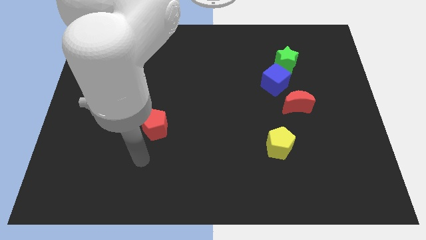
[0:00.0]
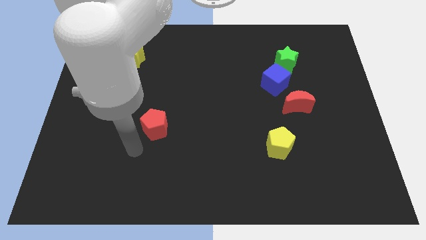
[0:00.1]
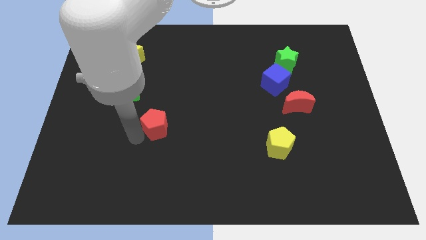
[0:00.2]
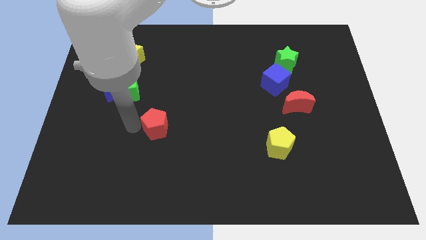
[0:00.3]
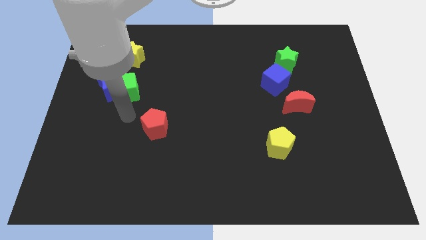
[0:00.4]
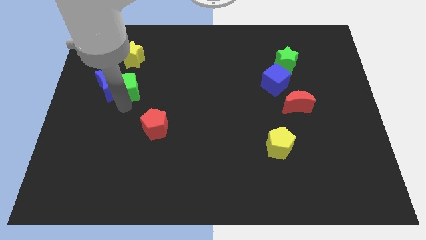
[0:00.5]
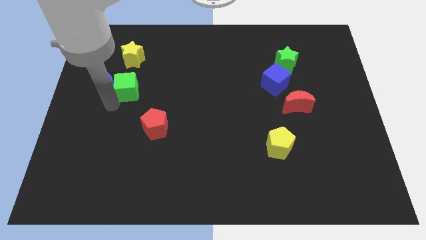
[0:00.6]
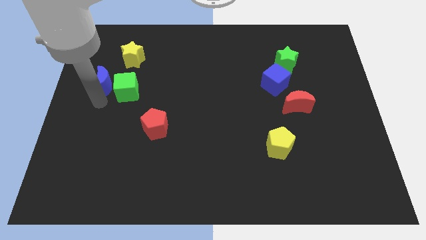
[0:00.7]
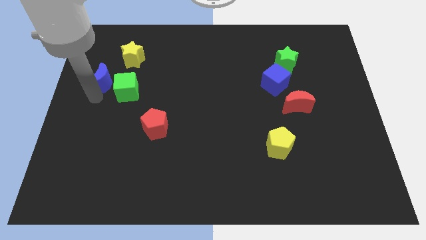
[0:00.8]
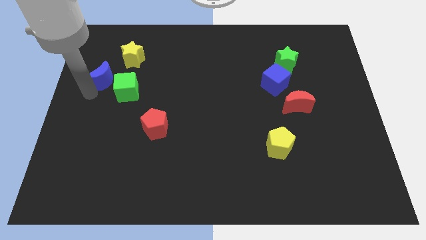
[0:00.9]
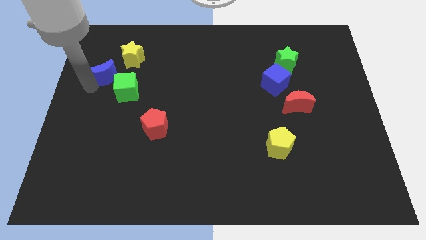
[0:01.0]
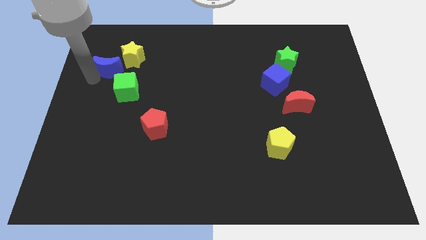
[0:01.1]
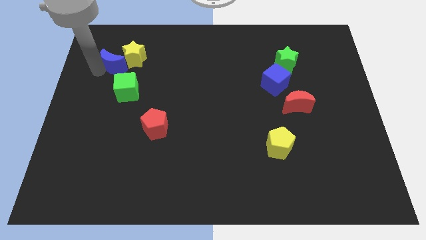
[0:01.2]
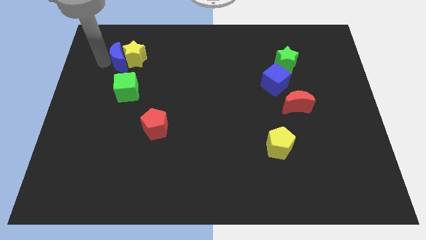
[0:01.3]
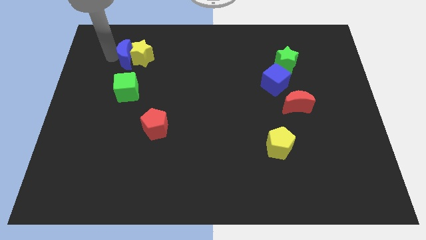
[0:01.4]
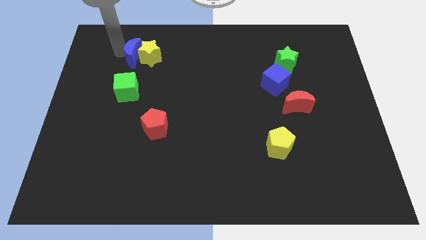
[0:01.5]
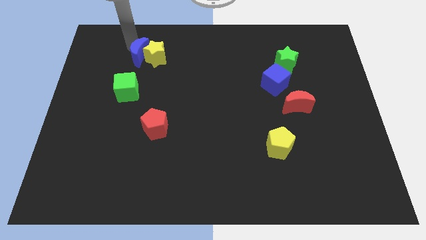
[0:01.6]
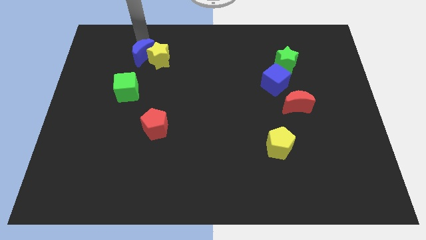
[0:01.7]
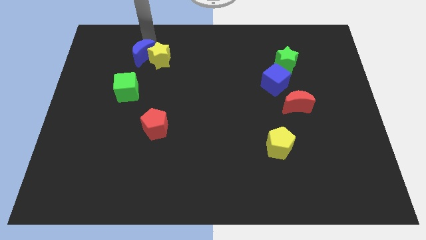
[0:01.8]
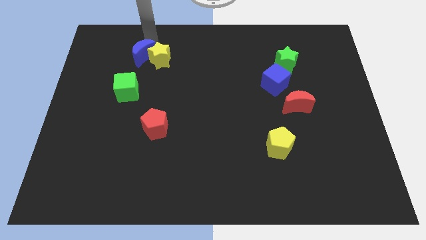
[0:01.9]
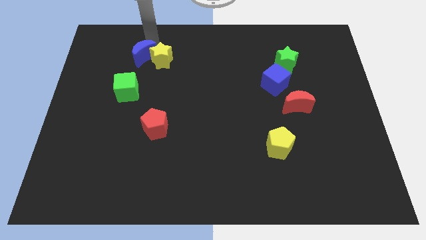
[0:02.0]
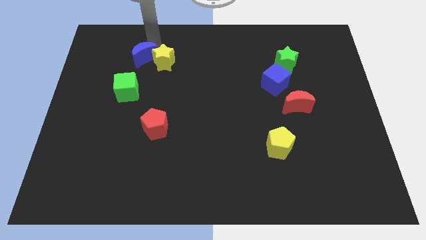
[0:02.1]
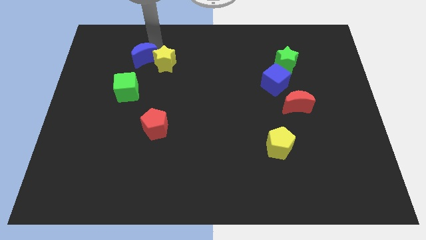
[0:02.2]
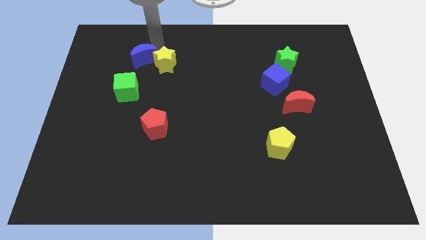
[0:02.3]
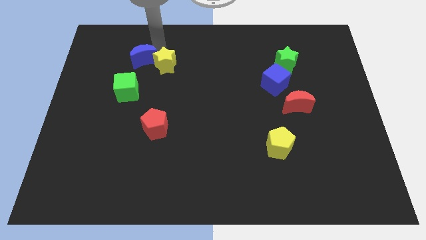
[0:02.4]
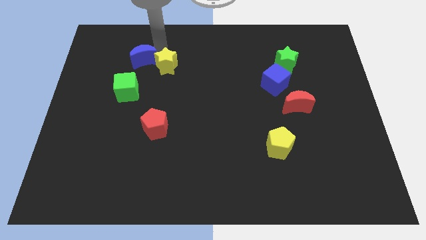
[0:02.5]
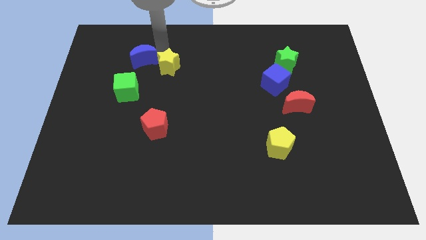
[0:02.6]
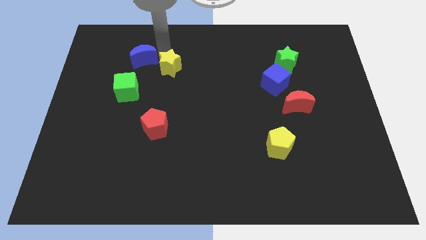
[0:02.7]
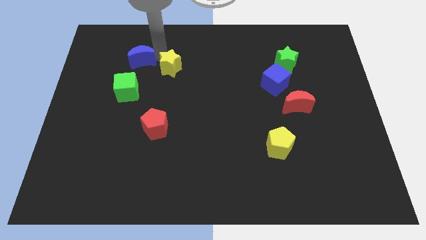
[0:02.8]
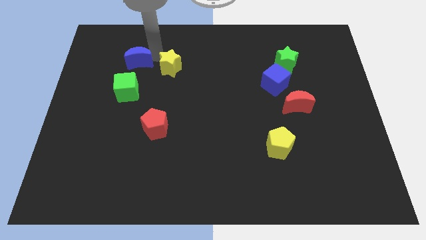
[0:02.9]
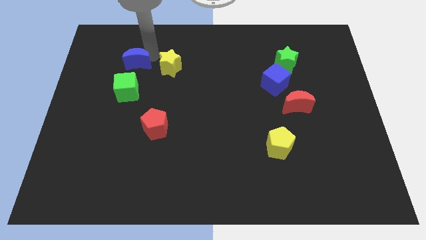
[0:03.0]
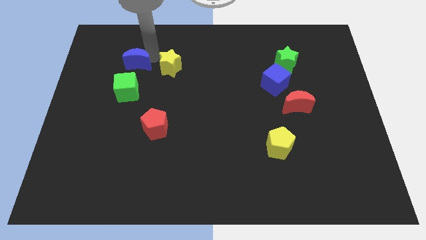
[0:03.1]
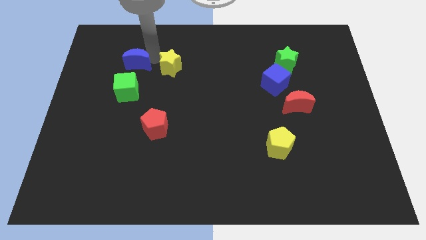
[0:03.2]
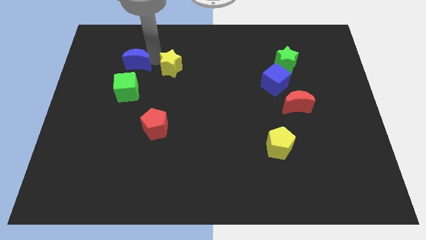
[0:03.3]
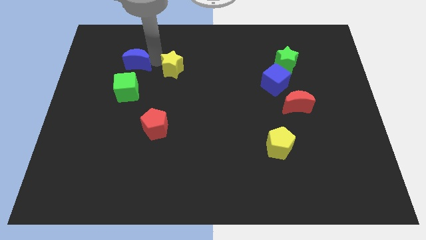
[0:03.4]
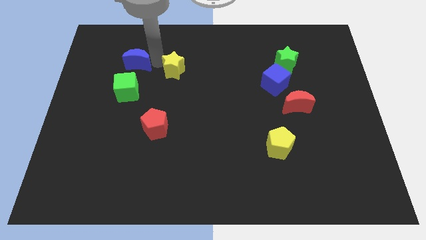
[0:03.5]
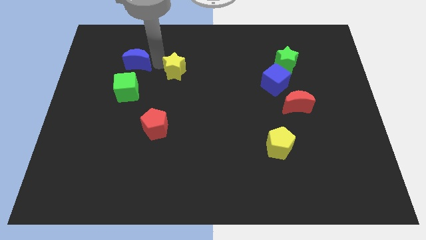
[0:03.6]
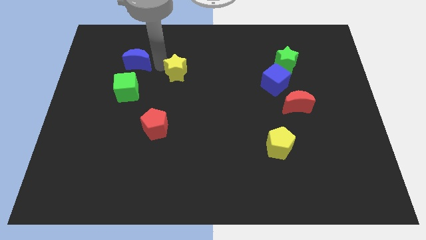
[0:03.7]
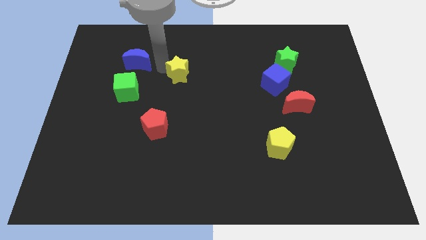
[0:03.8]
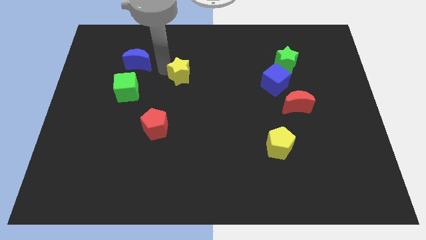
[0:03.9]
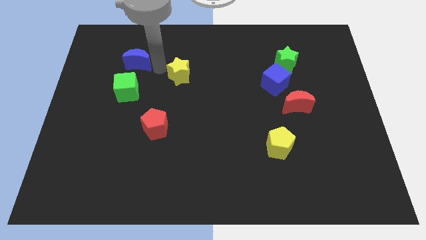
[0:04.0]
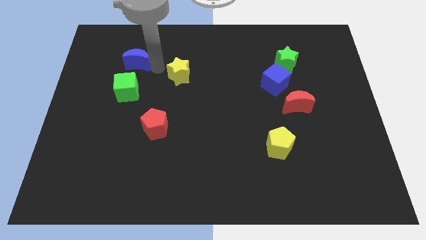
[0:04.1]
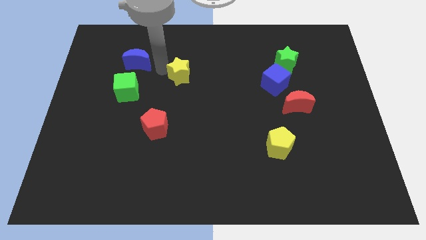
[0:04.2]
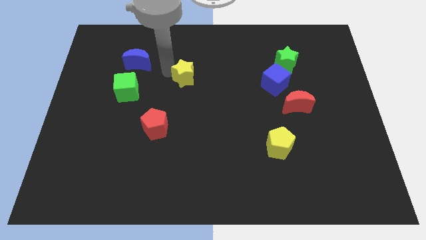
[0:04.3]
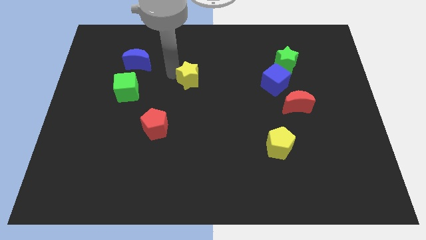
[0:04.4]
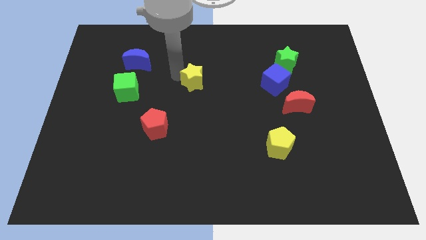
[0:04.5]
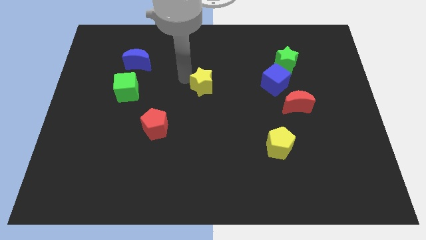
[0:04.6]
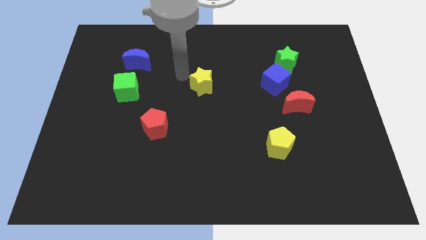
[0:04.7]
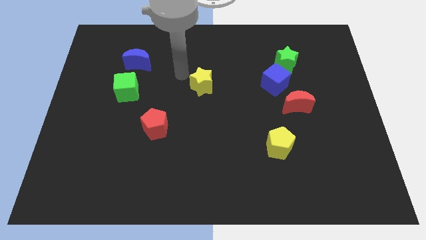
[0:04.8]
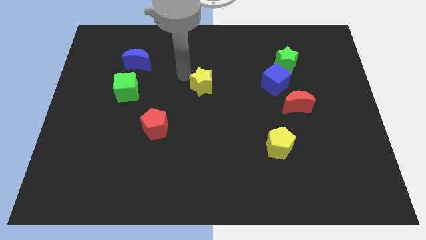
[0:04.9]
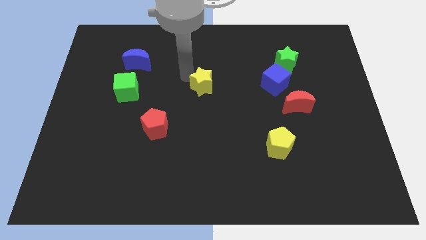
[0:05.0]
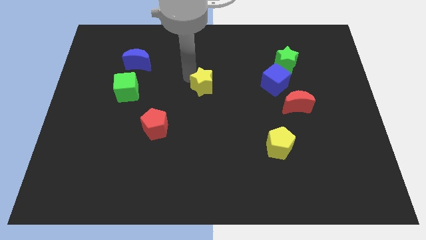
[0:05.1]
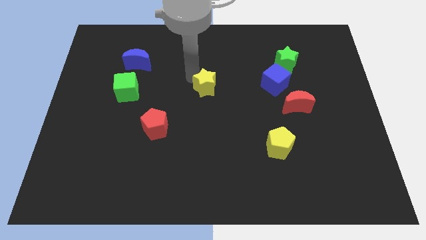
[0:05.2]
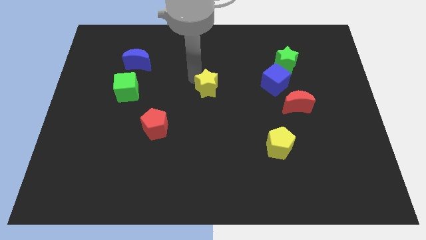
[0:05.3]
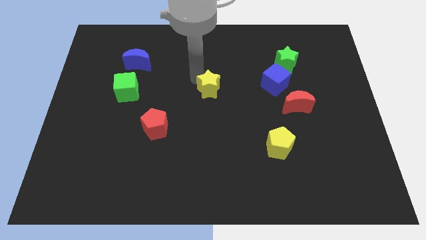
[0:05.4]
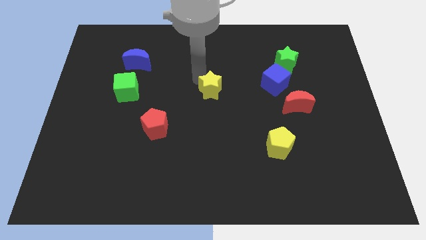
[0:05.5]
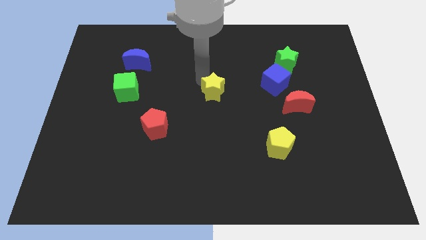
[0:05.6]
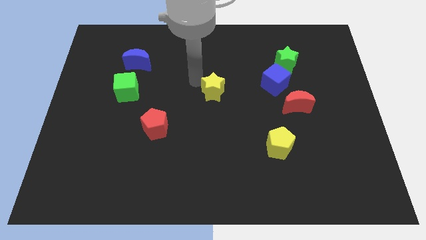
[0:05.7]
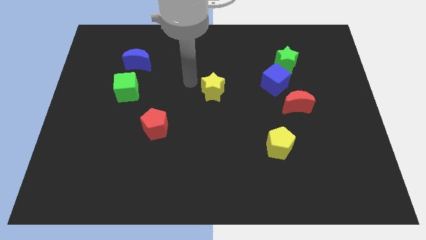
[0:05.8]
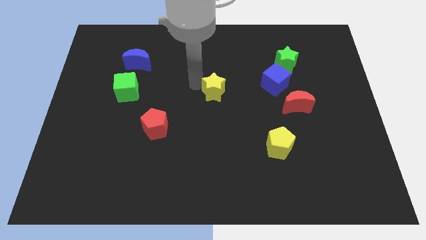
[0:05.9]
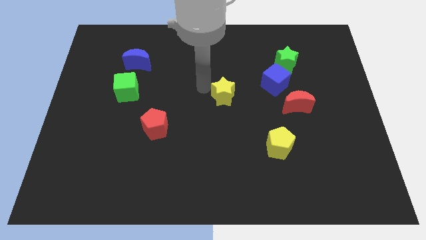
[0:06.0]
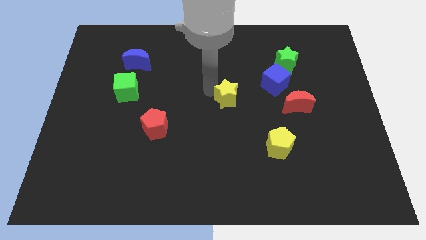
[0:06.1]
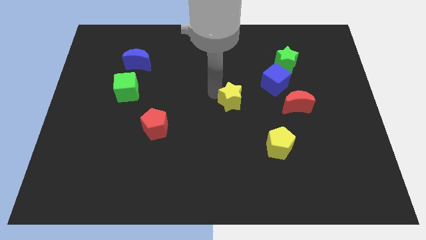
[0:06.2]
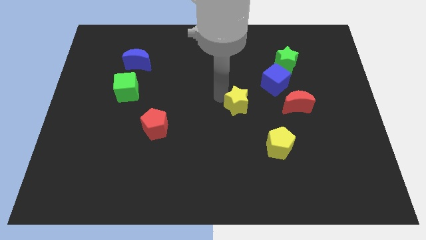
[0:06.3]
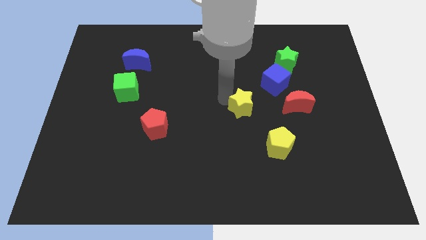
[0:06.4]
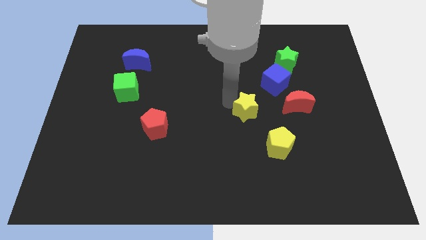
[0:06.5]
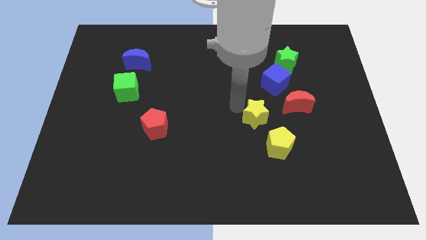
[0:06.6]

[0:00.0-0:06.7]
push the yellow star to the bottom left side of the red moon

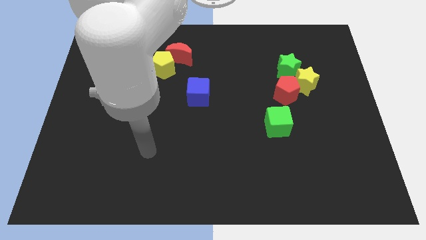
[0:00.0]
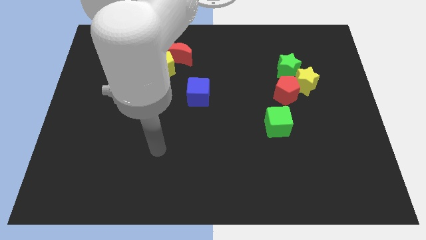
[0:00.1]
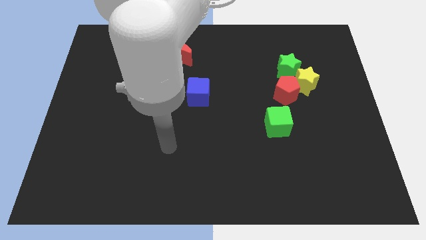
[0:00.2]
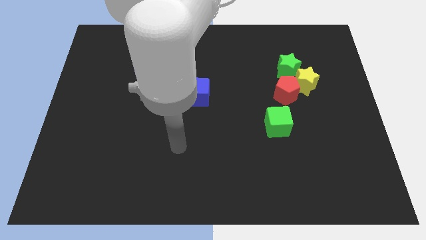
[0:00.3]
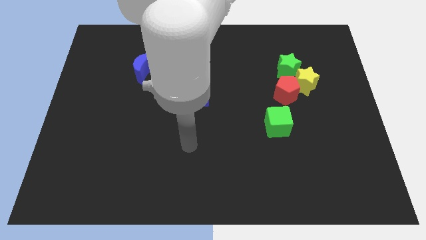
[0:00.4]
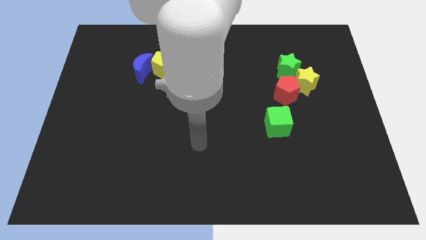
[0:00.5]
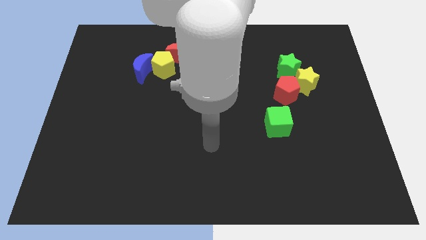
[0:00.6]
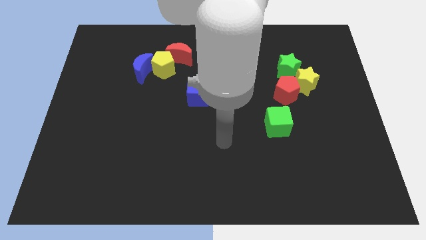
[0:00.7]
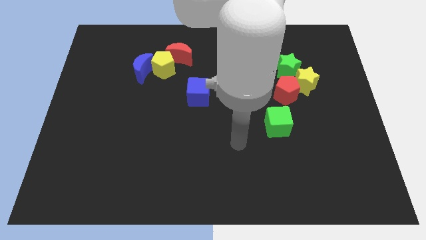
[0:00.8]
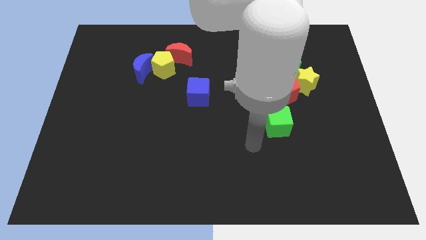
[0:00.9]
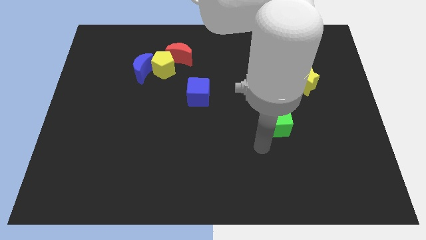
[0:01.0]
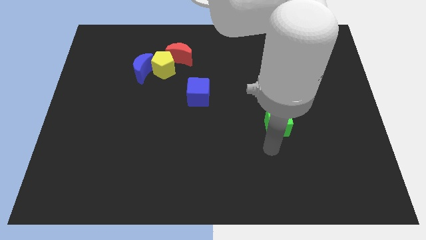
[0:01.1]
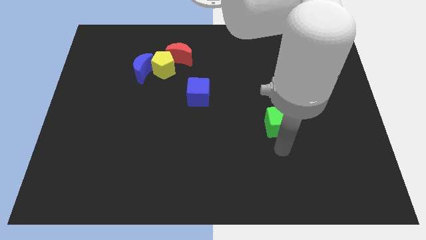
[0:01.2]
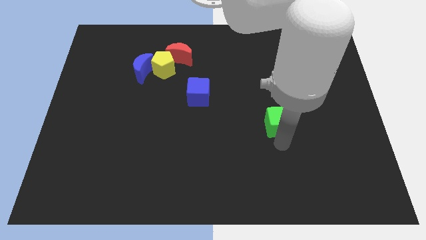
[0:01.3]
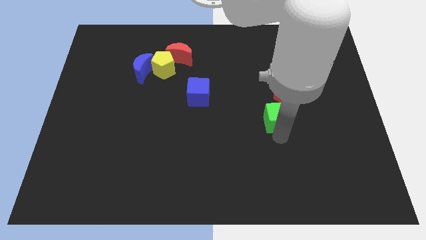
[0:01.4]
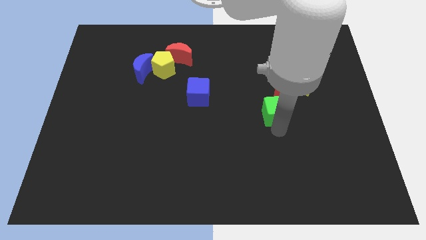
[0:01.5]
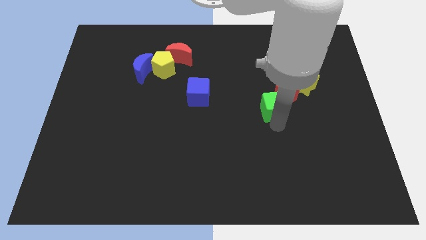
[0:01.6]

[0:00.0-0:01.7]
move the green cube to the bottom of the green star
